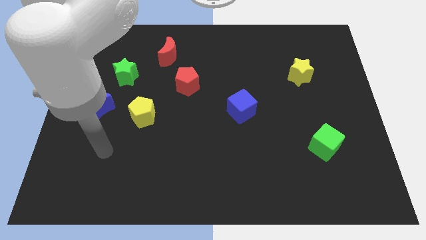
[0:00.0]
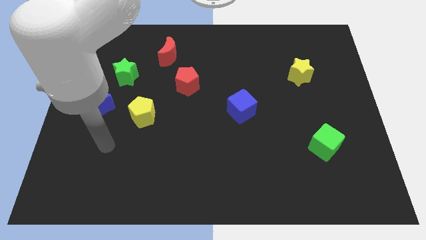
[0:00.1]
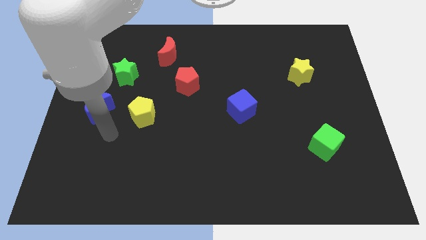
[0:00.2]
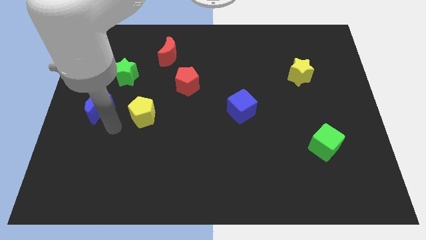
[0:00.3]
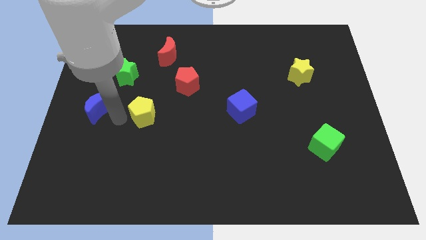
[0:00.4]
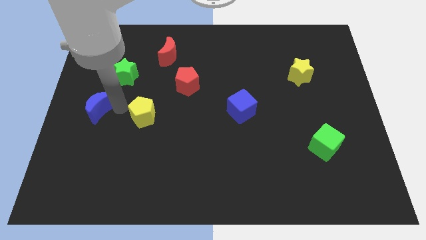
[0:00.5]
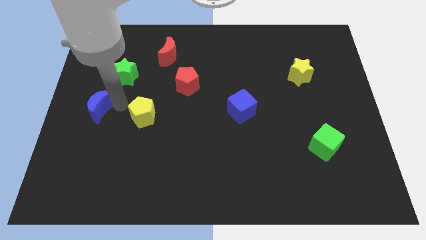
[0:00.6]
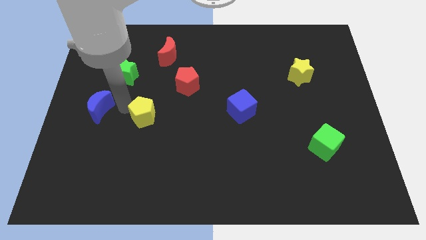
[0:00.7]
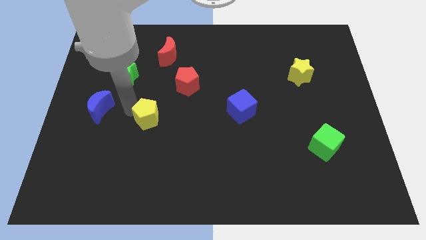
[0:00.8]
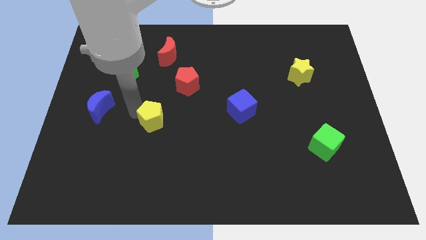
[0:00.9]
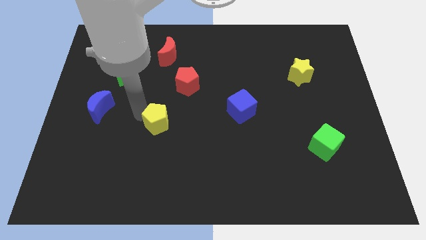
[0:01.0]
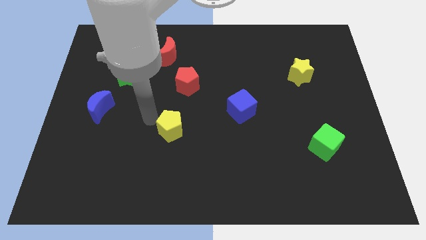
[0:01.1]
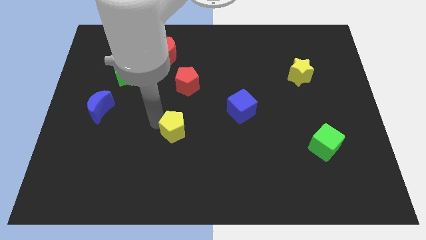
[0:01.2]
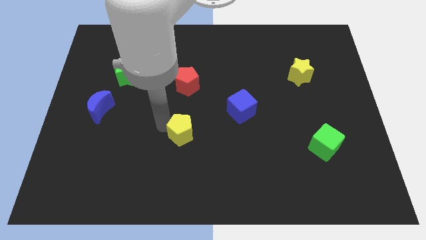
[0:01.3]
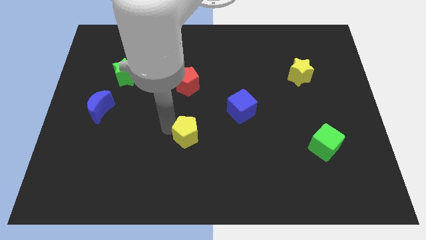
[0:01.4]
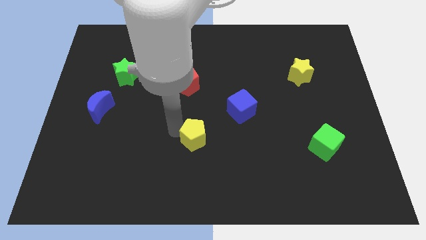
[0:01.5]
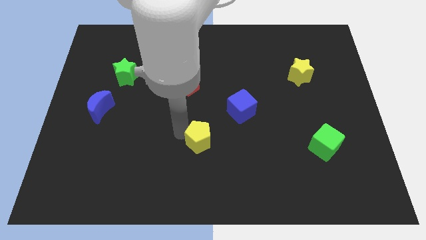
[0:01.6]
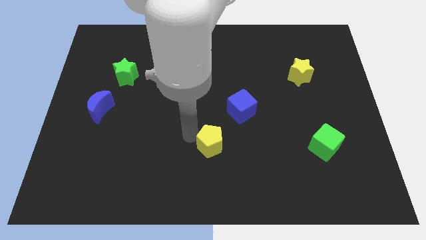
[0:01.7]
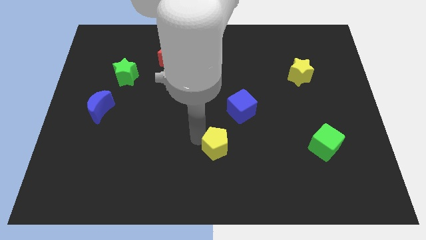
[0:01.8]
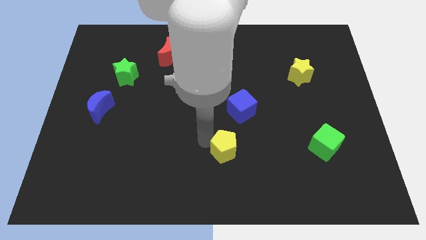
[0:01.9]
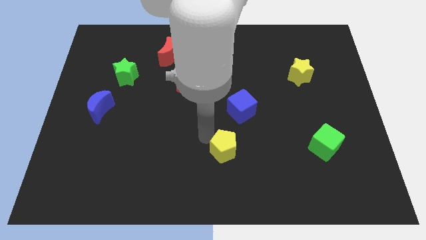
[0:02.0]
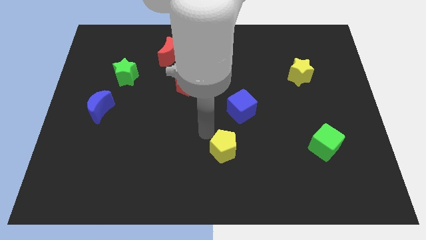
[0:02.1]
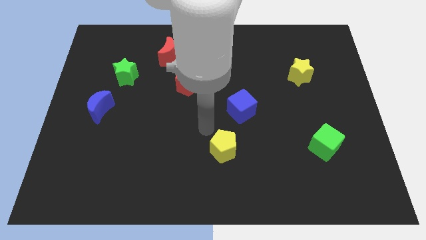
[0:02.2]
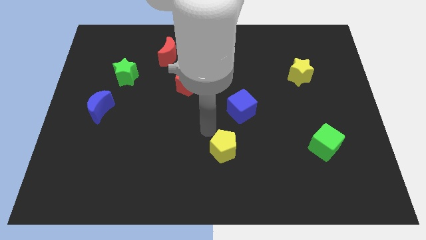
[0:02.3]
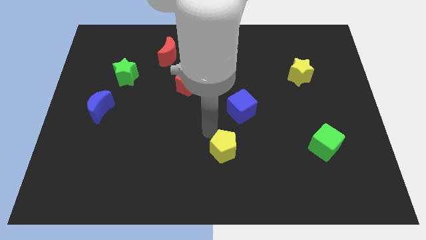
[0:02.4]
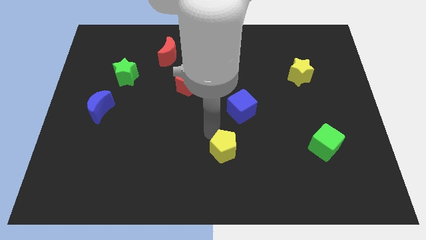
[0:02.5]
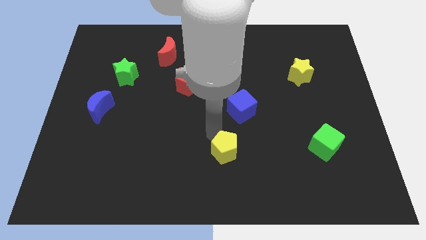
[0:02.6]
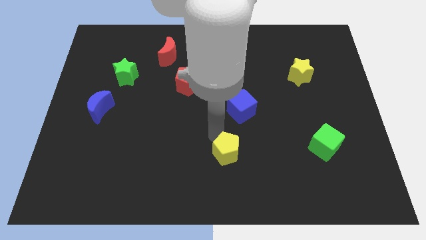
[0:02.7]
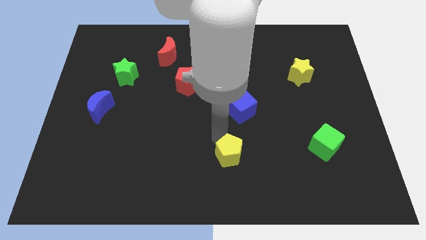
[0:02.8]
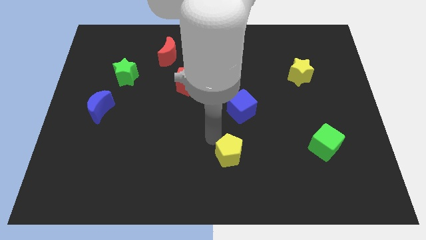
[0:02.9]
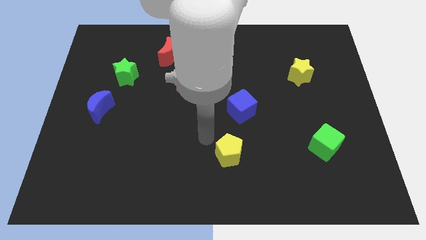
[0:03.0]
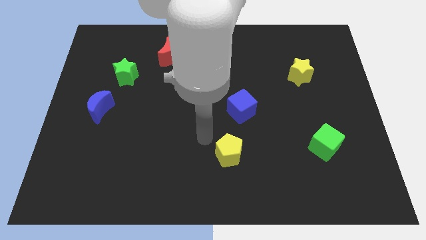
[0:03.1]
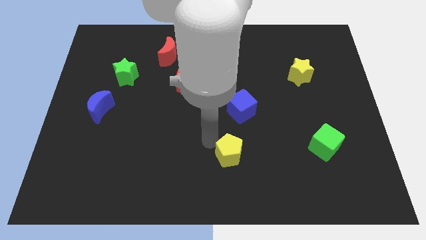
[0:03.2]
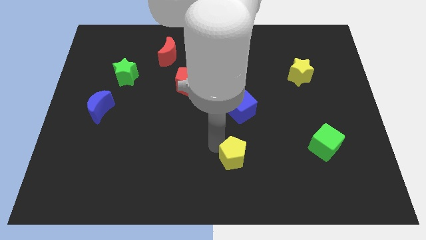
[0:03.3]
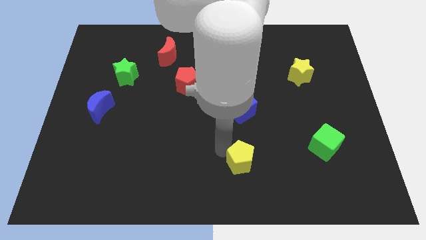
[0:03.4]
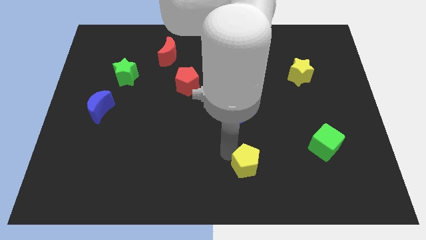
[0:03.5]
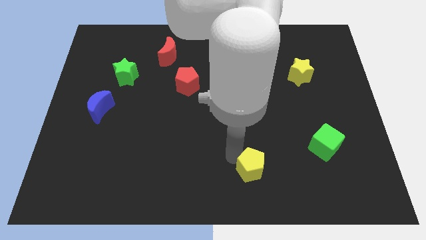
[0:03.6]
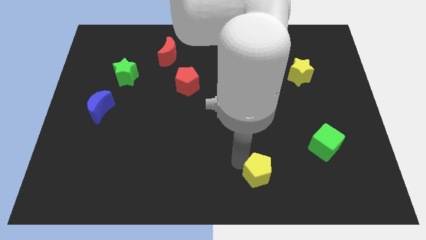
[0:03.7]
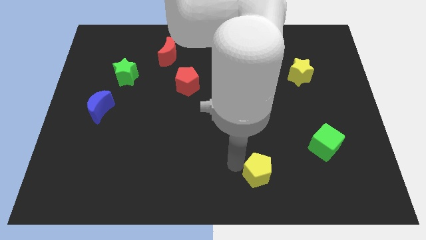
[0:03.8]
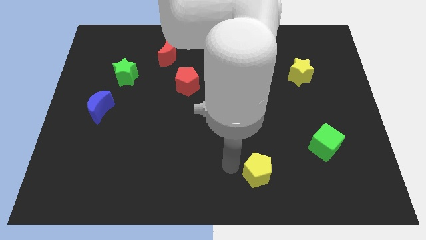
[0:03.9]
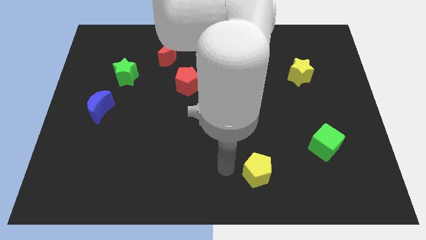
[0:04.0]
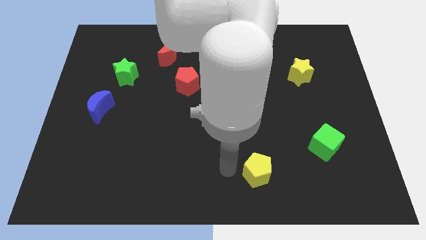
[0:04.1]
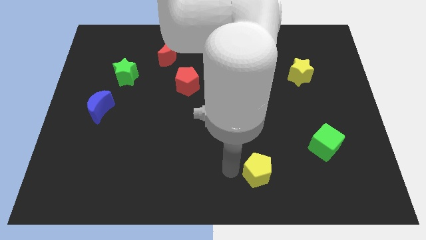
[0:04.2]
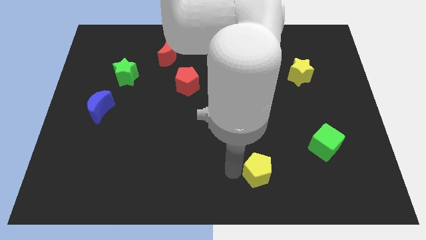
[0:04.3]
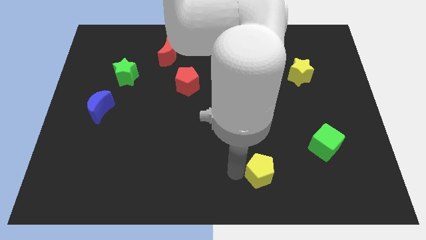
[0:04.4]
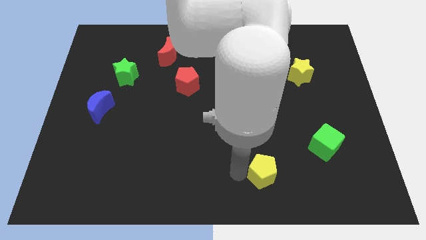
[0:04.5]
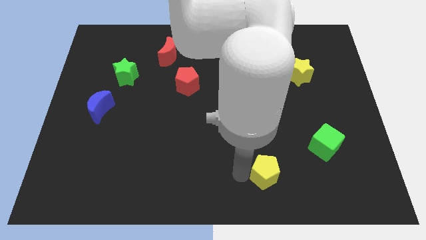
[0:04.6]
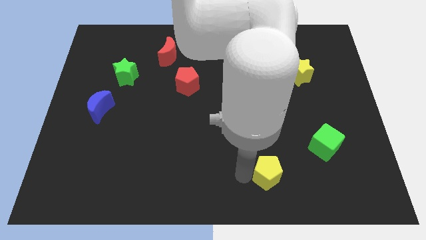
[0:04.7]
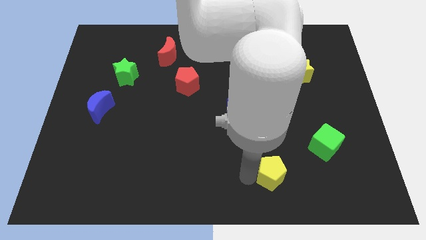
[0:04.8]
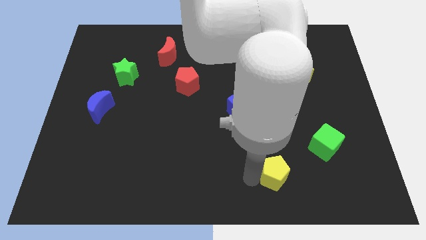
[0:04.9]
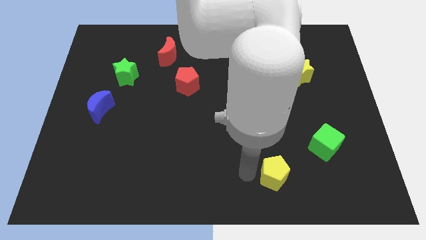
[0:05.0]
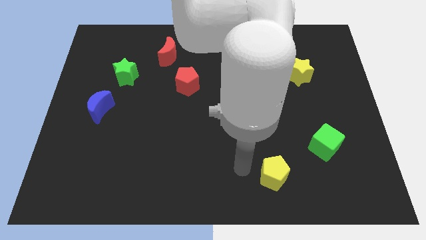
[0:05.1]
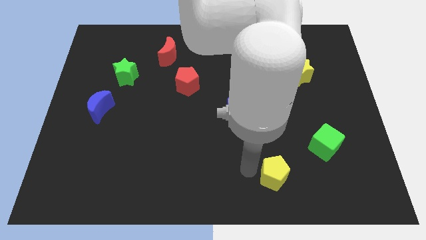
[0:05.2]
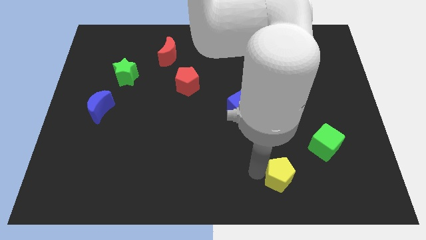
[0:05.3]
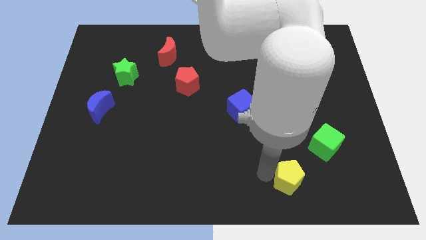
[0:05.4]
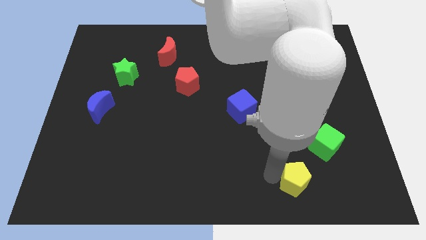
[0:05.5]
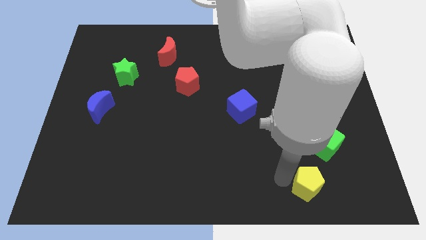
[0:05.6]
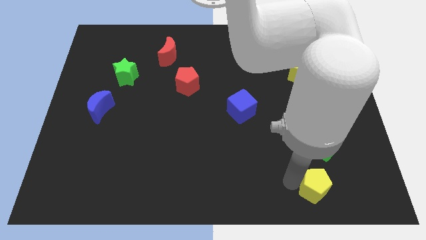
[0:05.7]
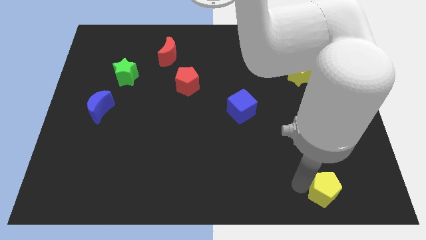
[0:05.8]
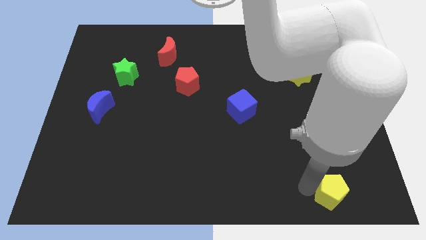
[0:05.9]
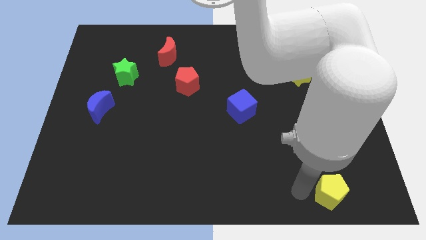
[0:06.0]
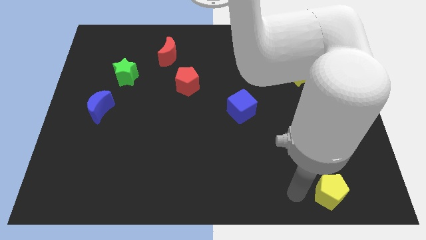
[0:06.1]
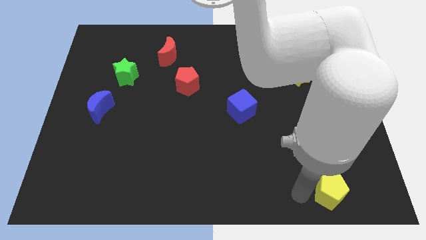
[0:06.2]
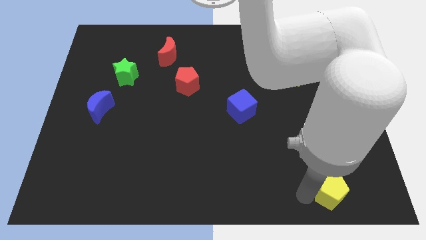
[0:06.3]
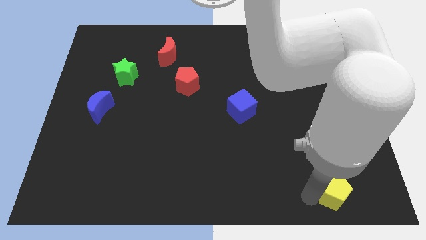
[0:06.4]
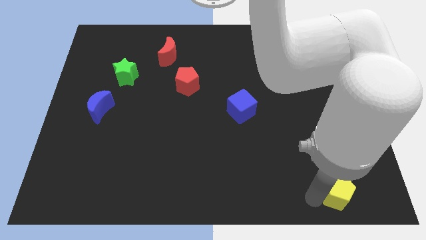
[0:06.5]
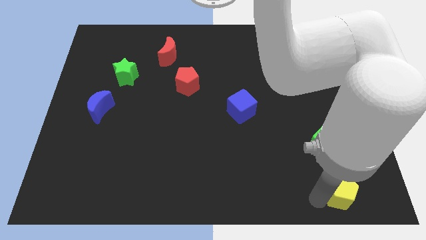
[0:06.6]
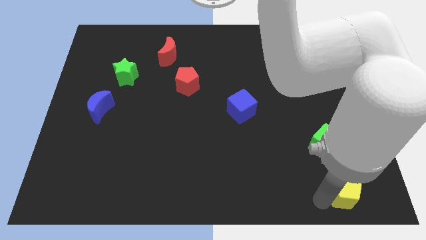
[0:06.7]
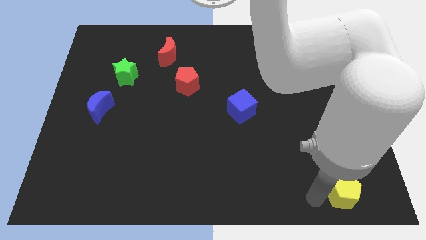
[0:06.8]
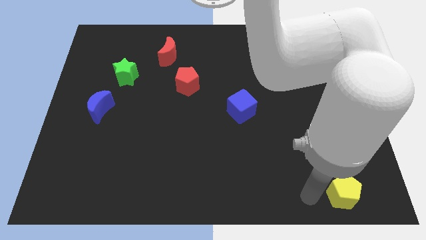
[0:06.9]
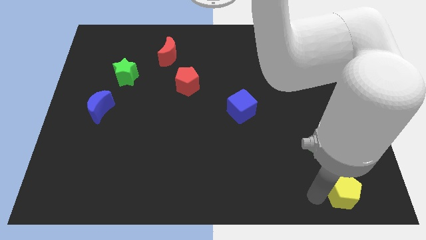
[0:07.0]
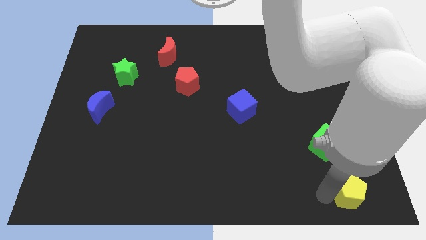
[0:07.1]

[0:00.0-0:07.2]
slide the yellow pentagon to the bottom right of the board
